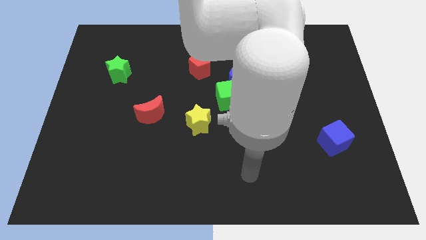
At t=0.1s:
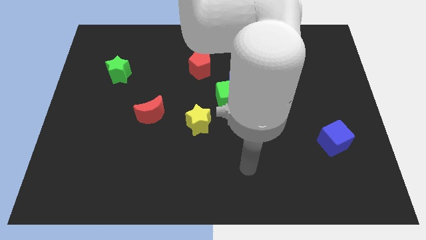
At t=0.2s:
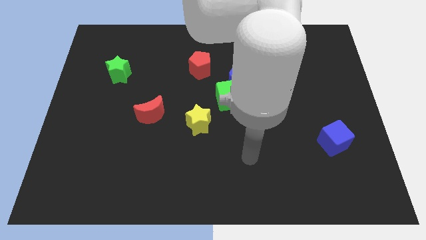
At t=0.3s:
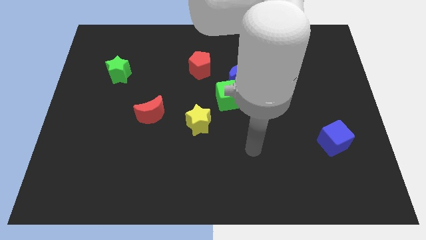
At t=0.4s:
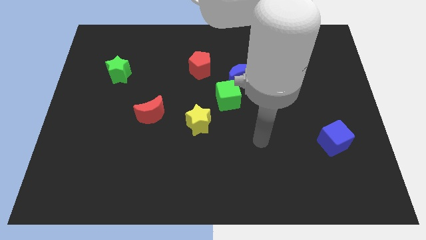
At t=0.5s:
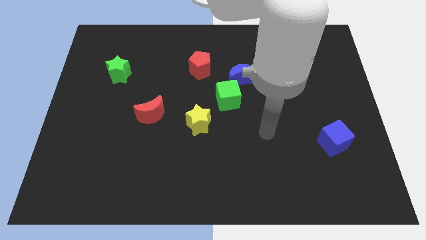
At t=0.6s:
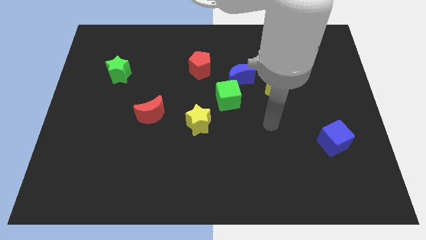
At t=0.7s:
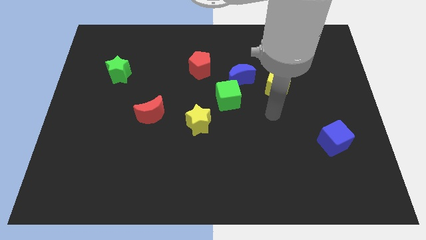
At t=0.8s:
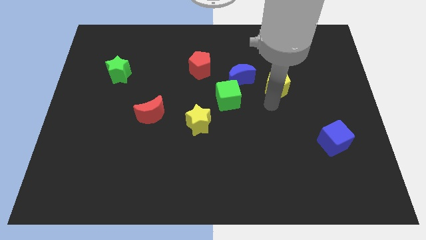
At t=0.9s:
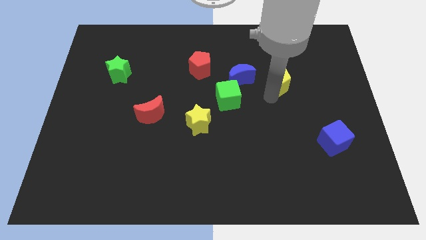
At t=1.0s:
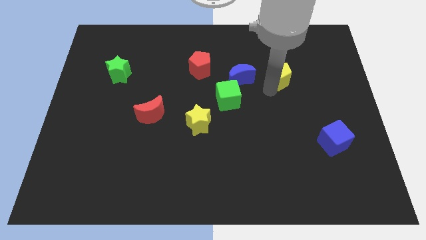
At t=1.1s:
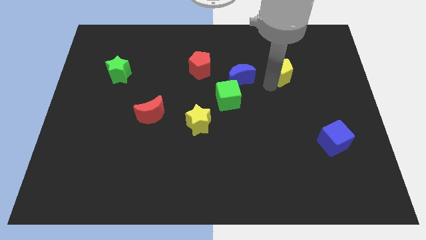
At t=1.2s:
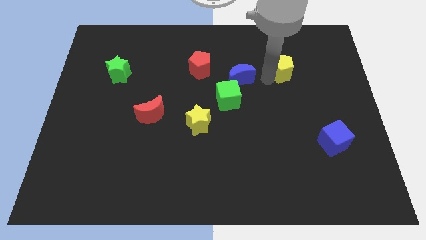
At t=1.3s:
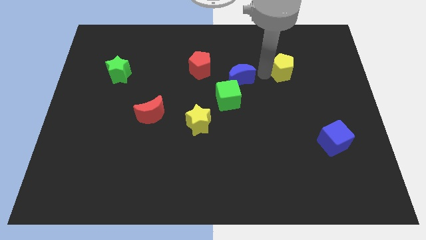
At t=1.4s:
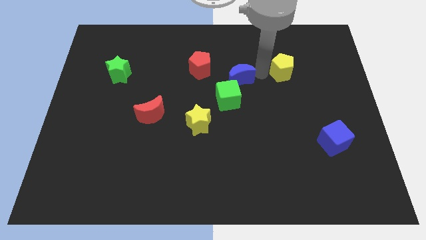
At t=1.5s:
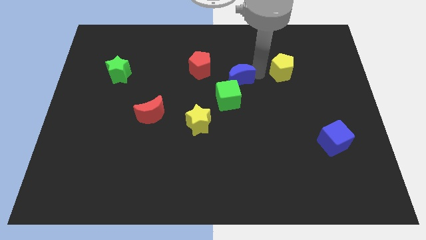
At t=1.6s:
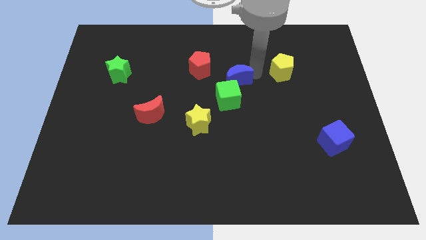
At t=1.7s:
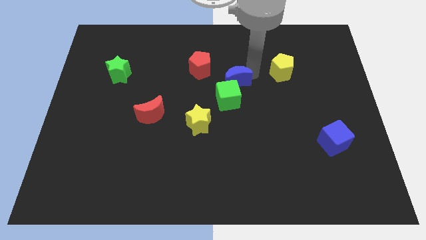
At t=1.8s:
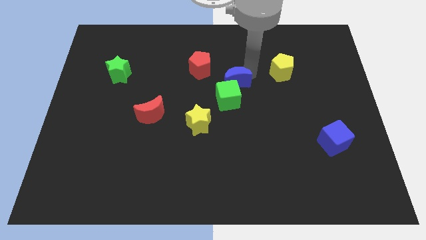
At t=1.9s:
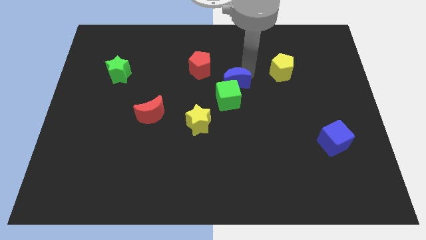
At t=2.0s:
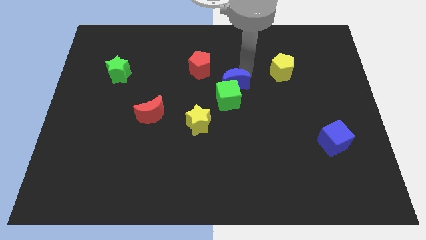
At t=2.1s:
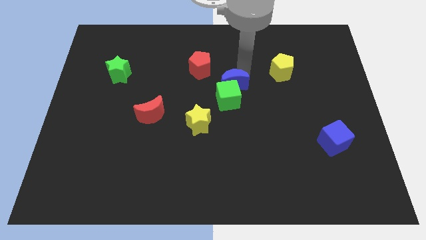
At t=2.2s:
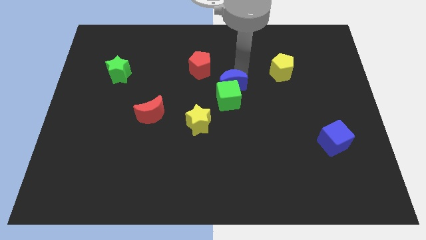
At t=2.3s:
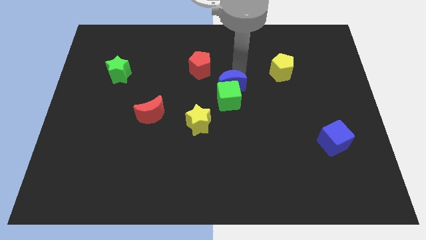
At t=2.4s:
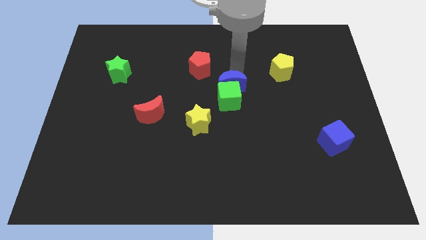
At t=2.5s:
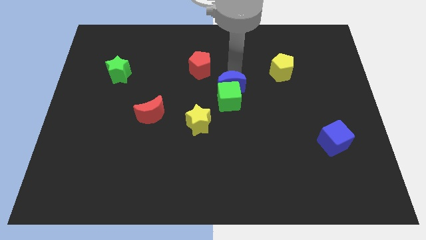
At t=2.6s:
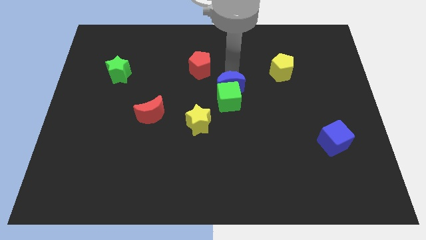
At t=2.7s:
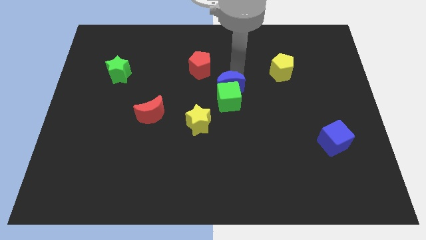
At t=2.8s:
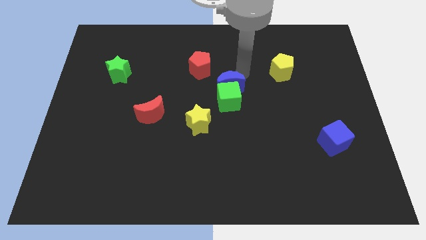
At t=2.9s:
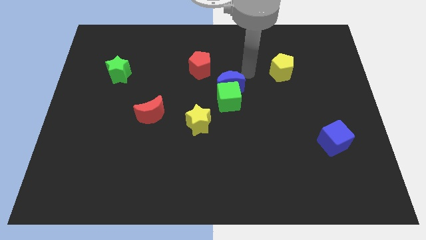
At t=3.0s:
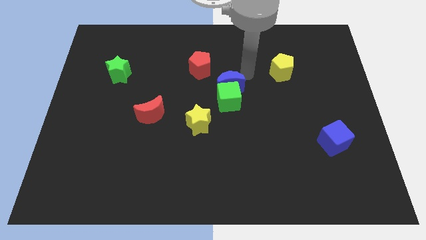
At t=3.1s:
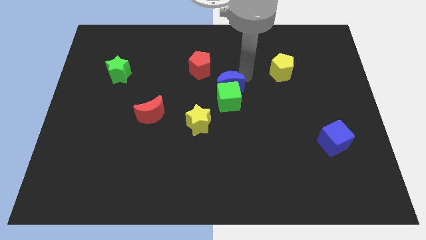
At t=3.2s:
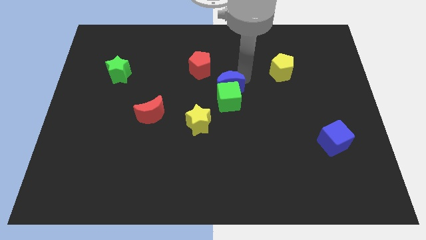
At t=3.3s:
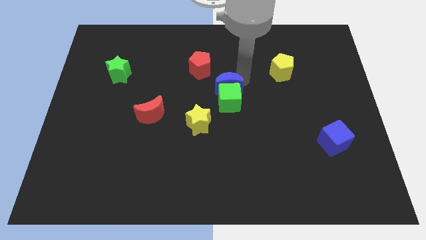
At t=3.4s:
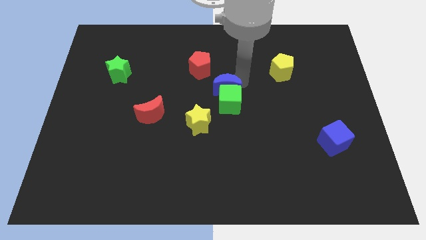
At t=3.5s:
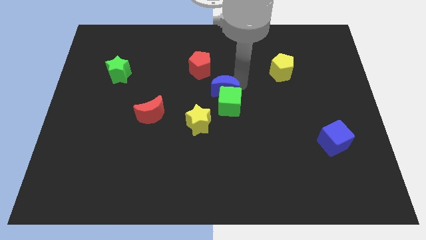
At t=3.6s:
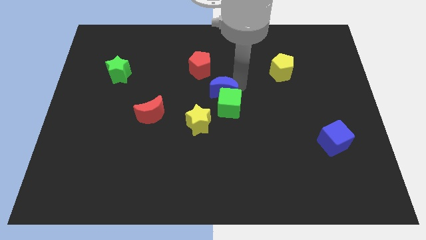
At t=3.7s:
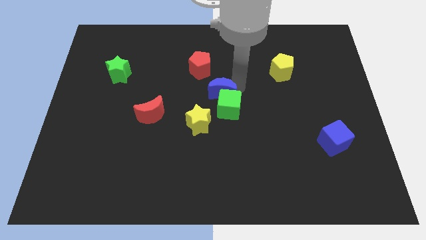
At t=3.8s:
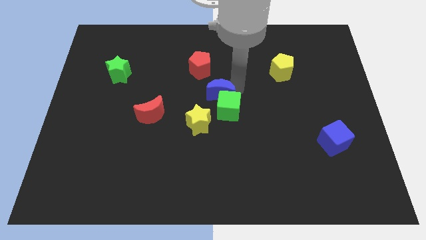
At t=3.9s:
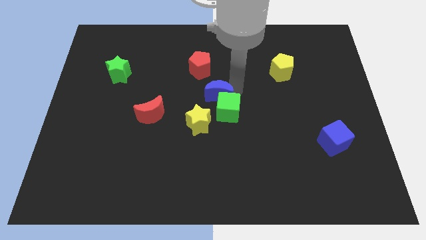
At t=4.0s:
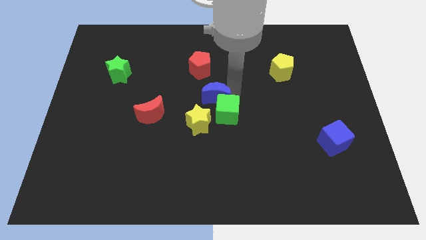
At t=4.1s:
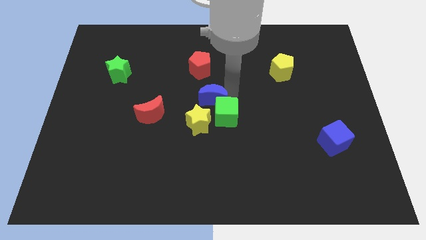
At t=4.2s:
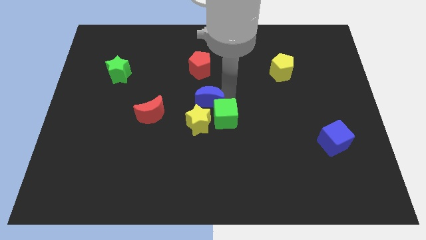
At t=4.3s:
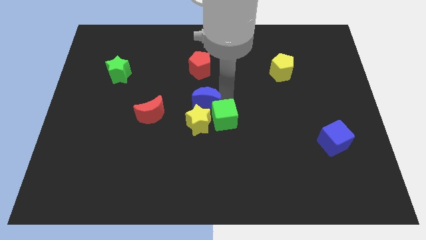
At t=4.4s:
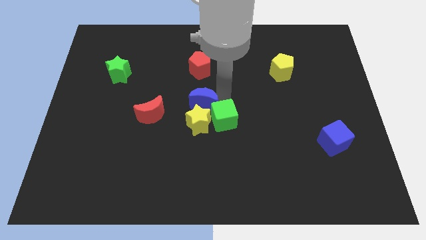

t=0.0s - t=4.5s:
put the blue moon next to the yellow star

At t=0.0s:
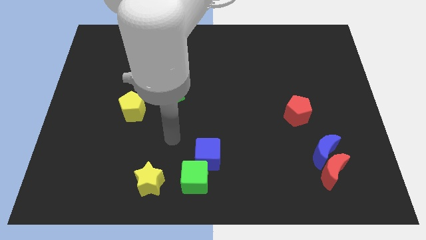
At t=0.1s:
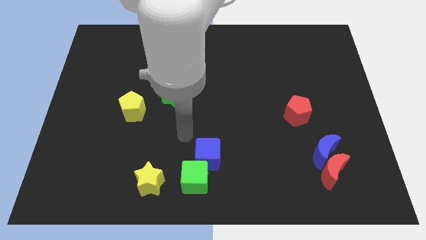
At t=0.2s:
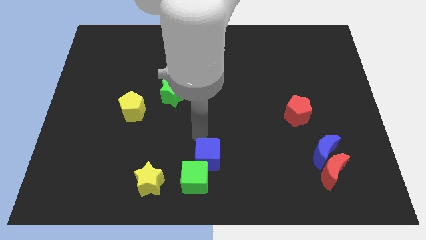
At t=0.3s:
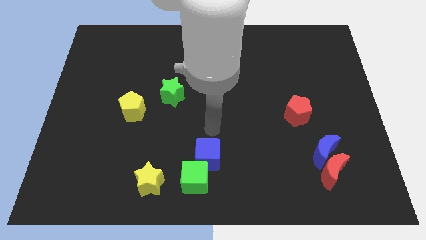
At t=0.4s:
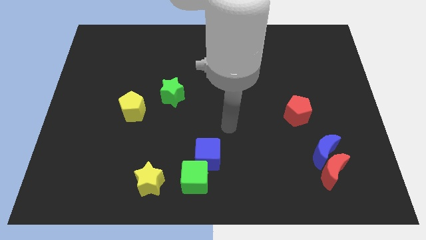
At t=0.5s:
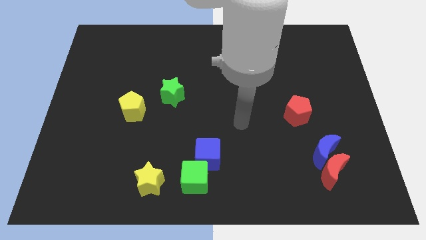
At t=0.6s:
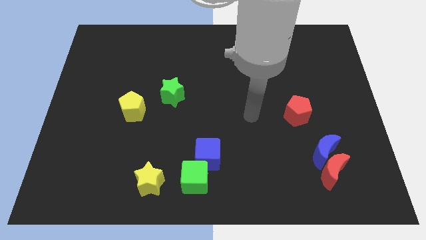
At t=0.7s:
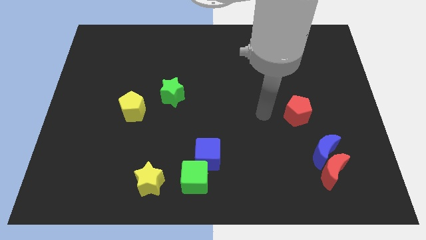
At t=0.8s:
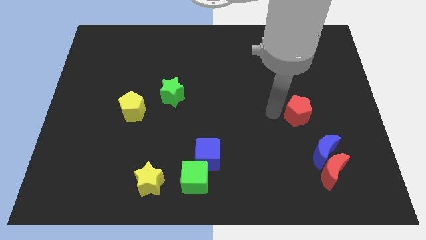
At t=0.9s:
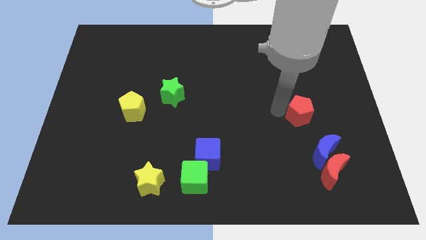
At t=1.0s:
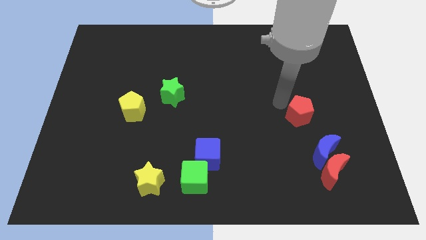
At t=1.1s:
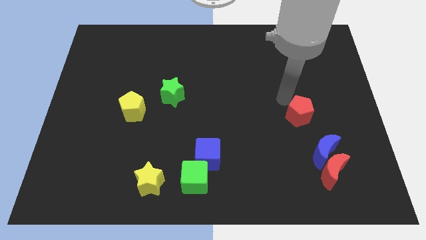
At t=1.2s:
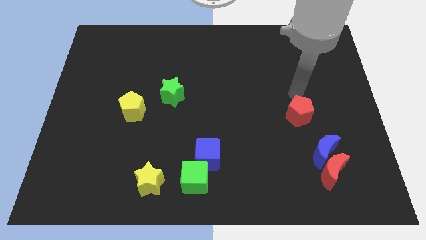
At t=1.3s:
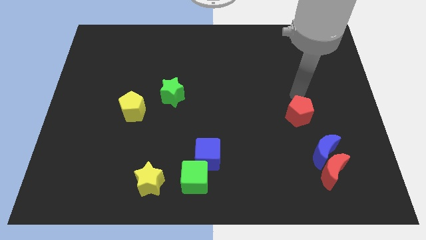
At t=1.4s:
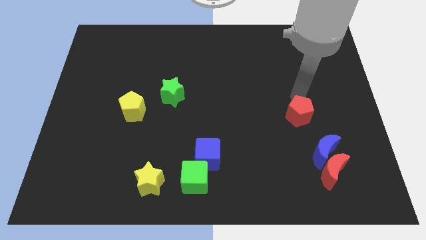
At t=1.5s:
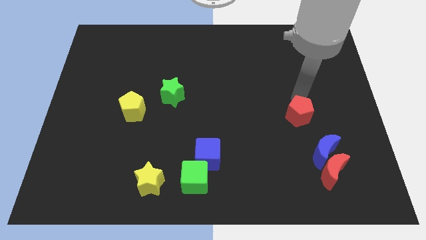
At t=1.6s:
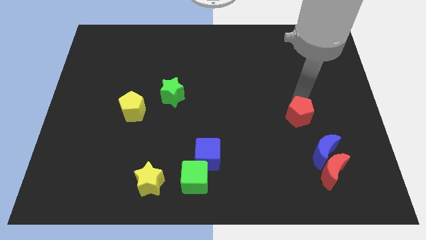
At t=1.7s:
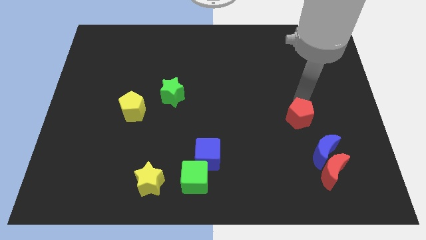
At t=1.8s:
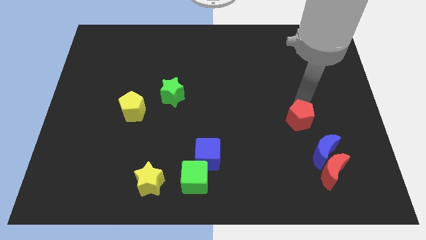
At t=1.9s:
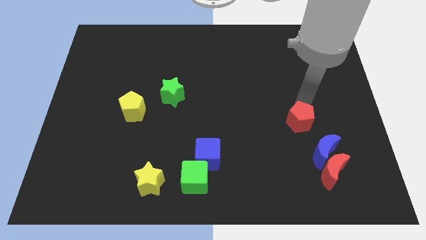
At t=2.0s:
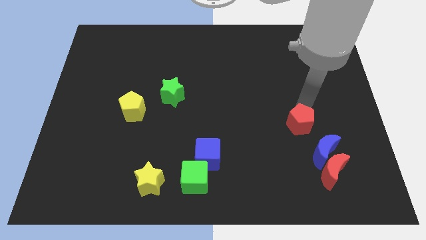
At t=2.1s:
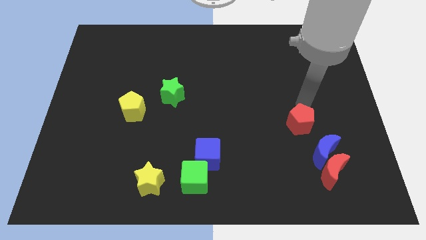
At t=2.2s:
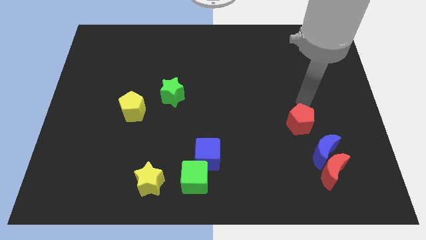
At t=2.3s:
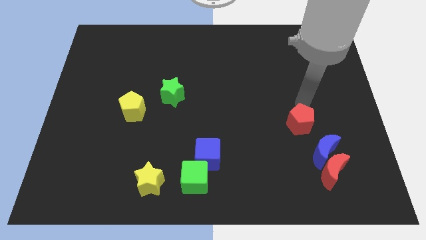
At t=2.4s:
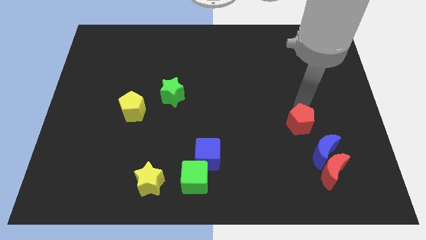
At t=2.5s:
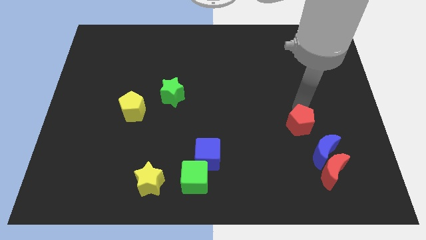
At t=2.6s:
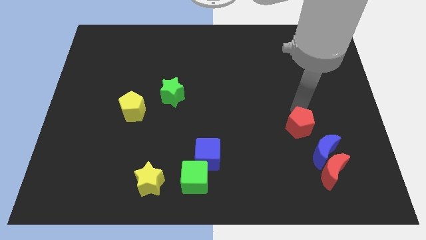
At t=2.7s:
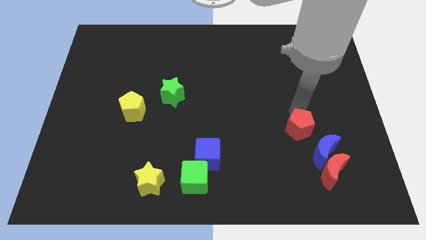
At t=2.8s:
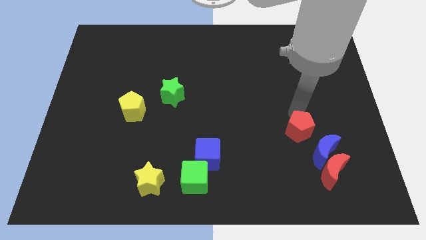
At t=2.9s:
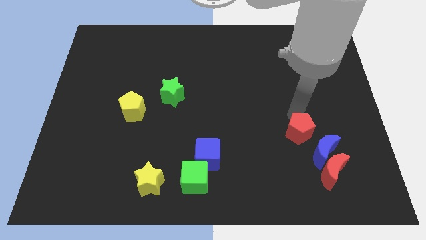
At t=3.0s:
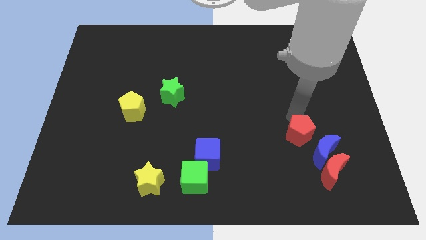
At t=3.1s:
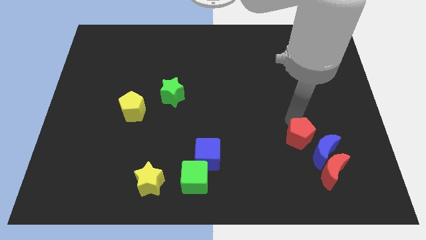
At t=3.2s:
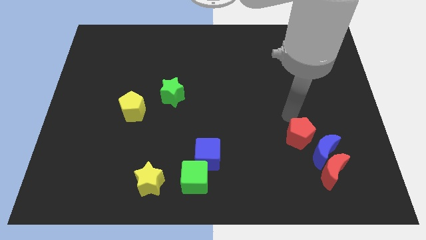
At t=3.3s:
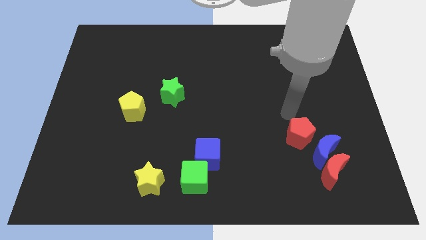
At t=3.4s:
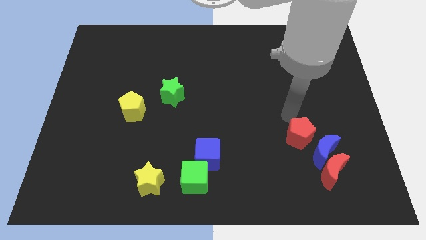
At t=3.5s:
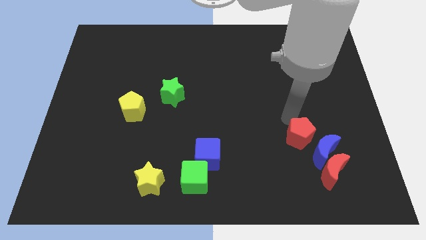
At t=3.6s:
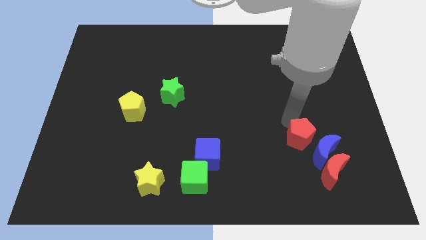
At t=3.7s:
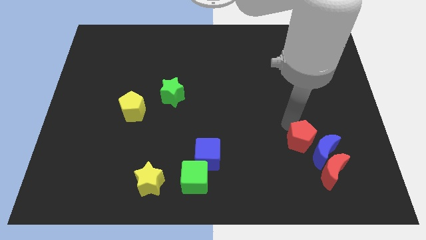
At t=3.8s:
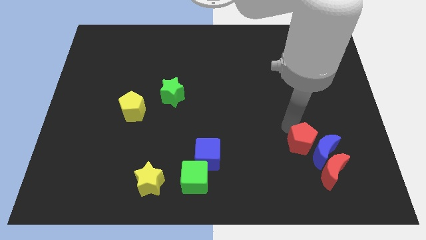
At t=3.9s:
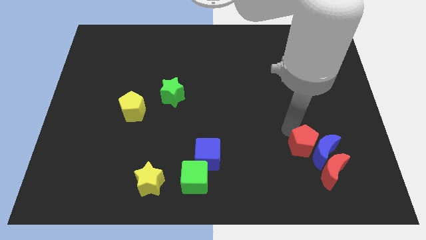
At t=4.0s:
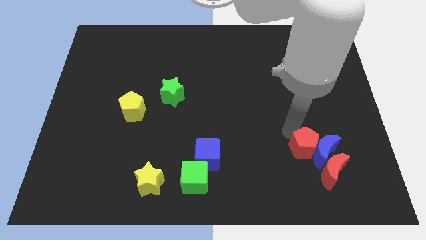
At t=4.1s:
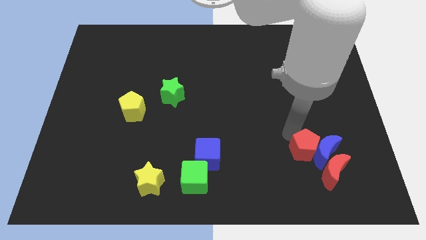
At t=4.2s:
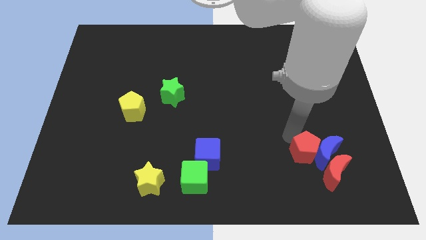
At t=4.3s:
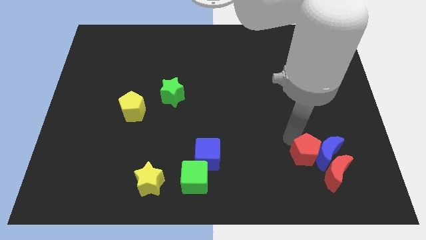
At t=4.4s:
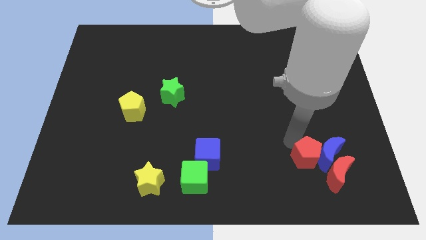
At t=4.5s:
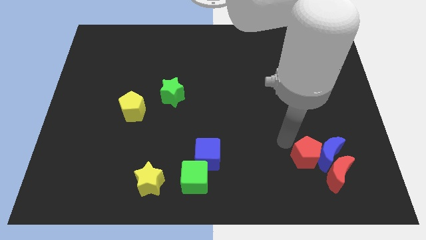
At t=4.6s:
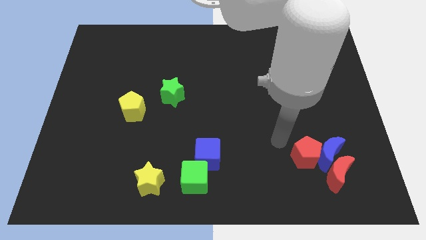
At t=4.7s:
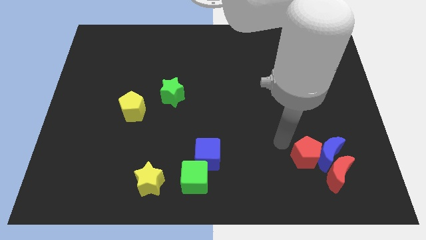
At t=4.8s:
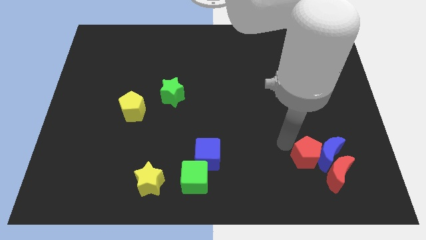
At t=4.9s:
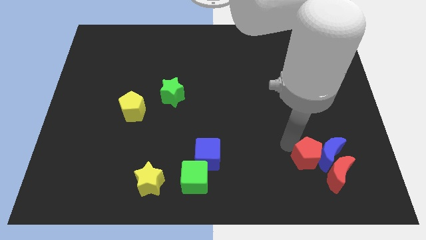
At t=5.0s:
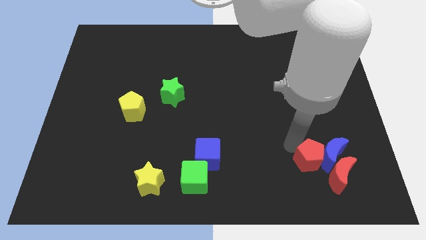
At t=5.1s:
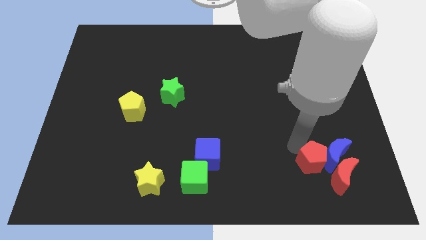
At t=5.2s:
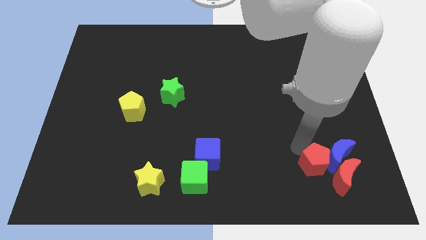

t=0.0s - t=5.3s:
push the red pentagon close to the red moon
